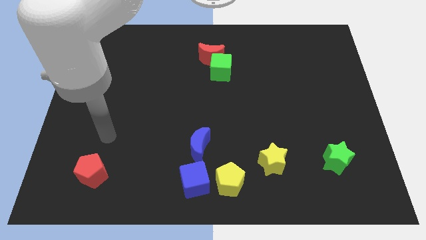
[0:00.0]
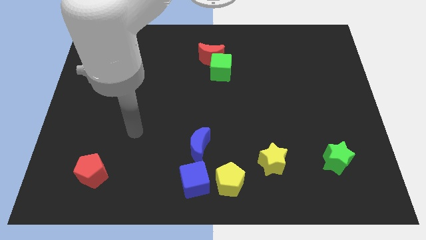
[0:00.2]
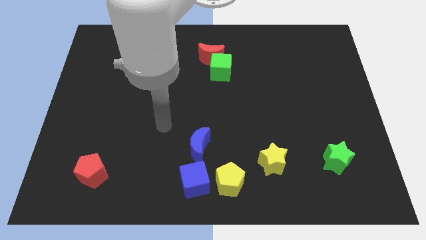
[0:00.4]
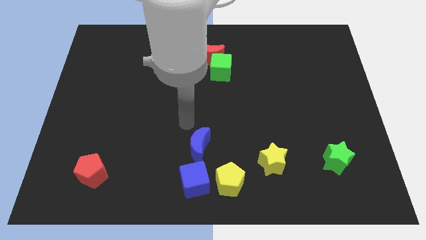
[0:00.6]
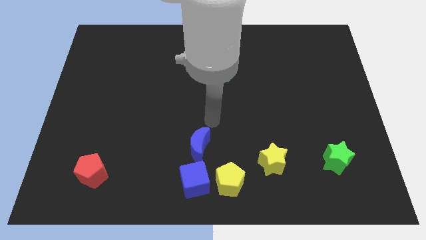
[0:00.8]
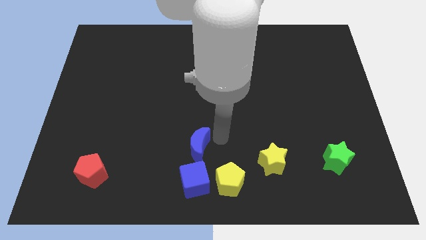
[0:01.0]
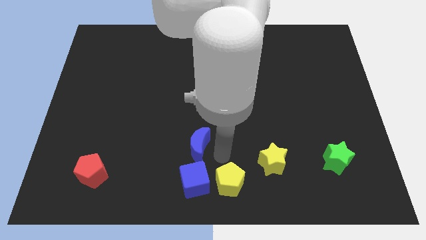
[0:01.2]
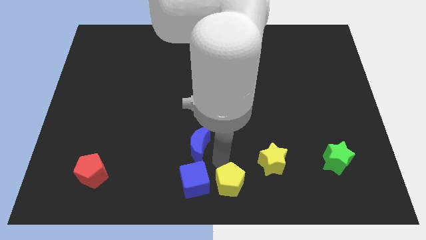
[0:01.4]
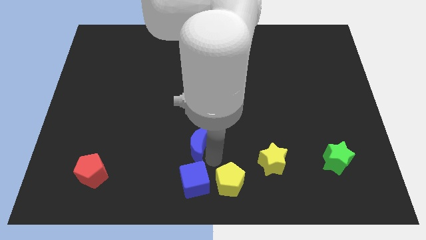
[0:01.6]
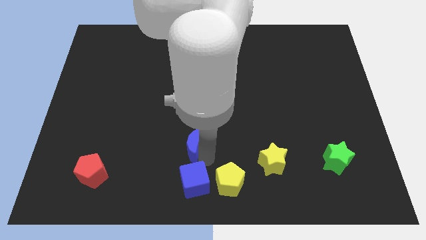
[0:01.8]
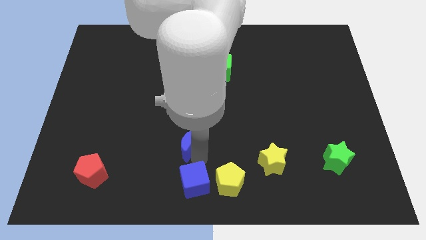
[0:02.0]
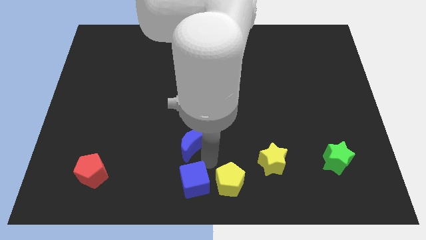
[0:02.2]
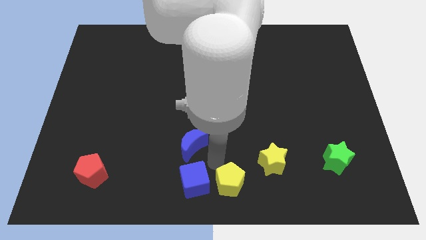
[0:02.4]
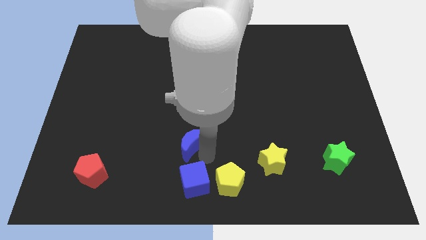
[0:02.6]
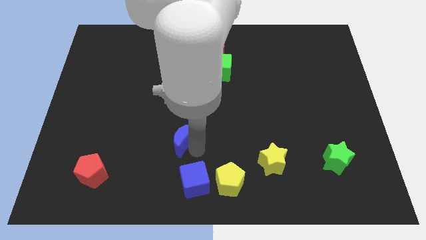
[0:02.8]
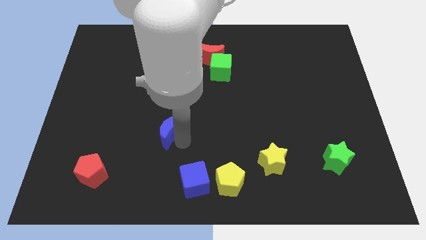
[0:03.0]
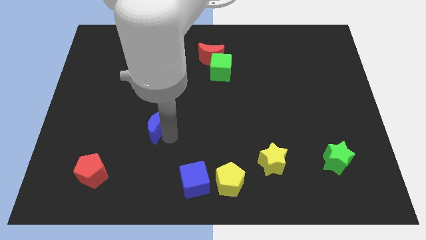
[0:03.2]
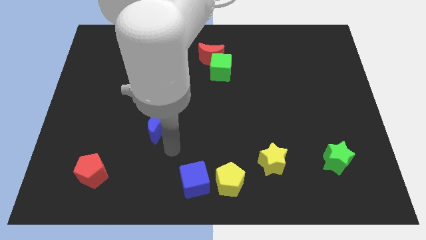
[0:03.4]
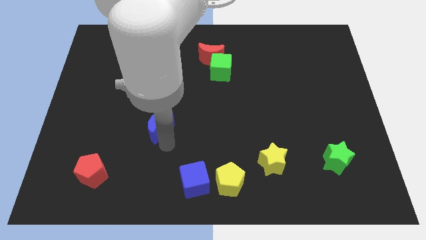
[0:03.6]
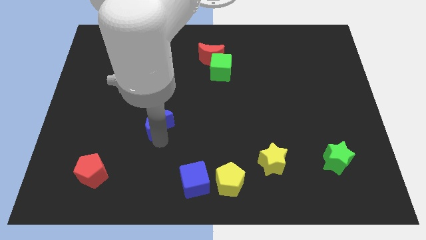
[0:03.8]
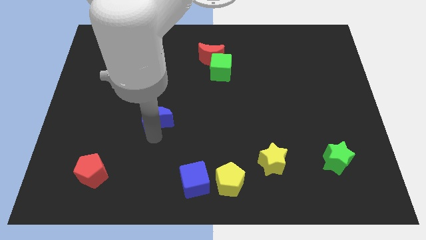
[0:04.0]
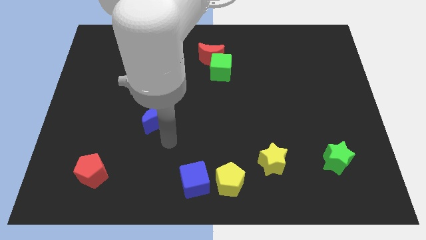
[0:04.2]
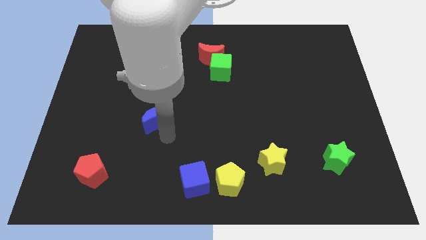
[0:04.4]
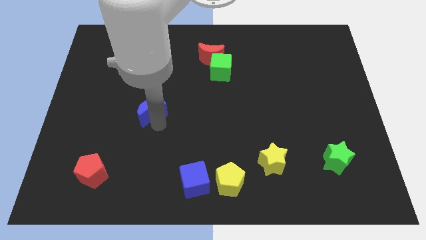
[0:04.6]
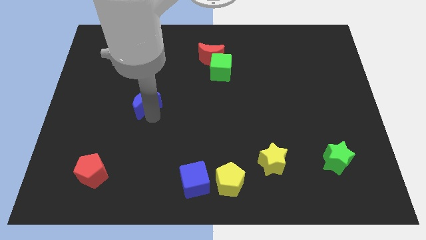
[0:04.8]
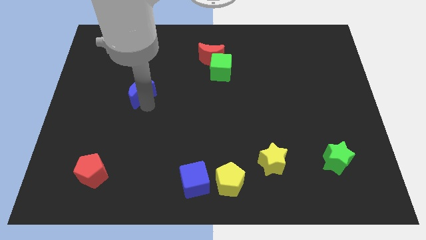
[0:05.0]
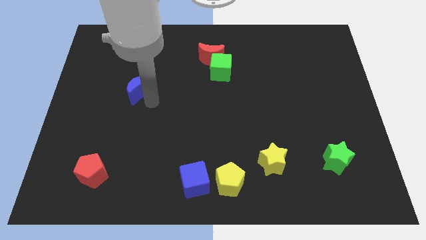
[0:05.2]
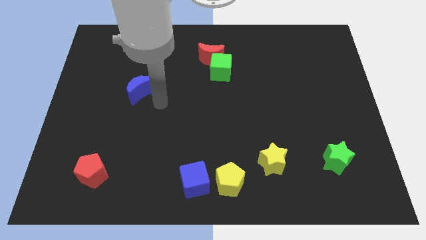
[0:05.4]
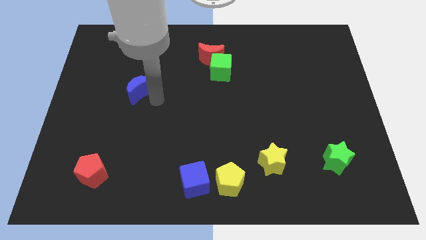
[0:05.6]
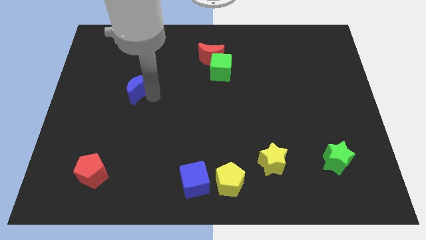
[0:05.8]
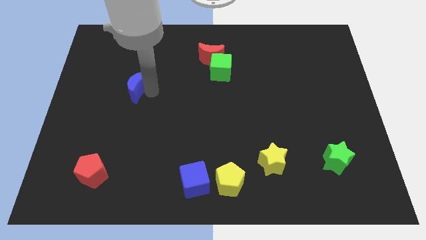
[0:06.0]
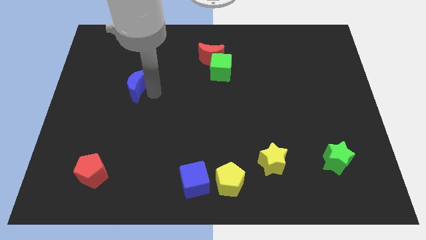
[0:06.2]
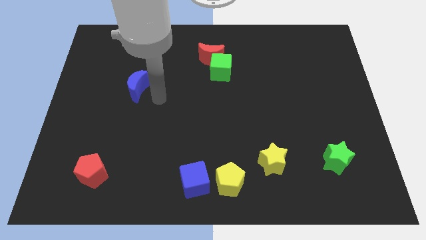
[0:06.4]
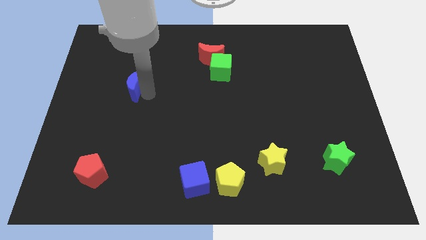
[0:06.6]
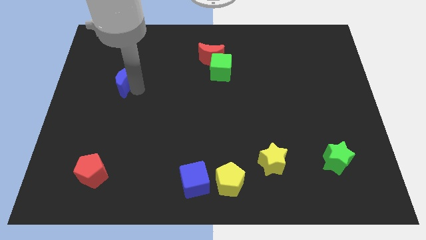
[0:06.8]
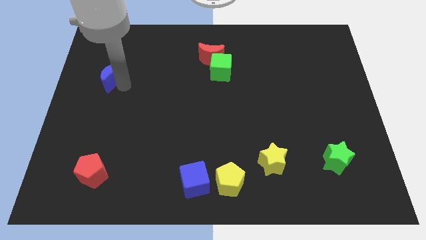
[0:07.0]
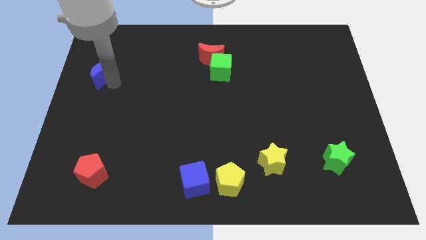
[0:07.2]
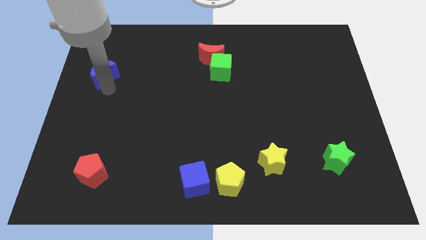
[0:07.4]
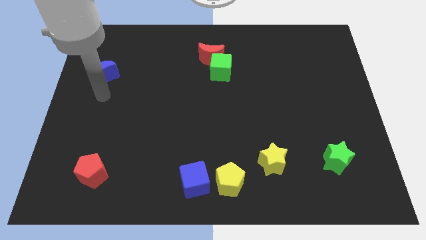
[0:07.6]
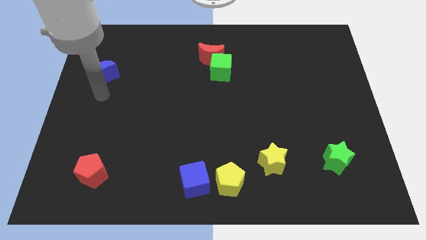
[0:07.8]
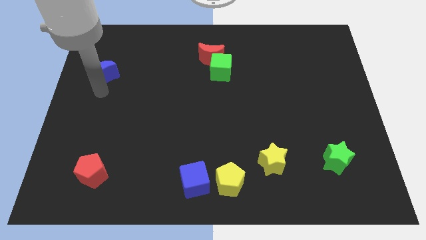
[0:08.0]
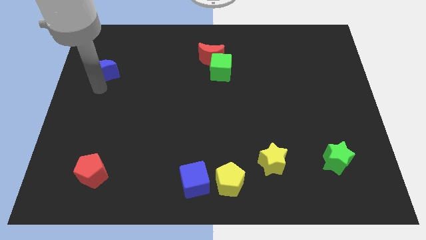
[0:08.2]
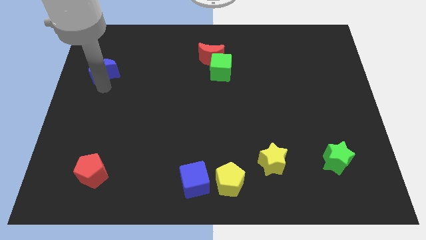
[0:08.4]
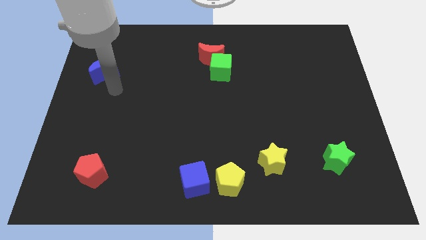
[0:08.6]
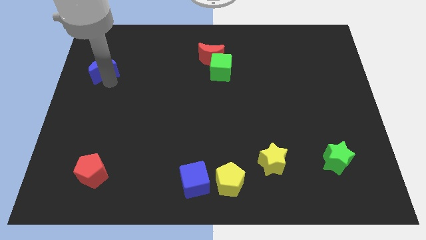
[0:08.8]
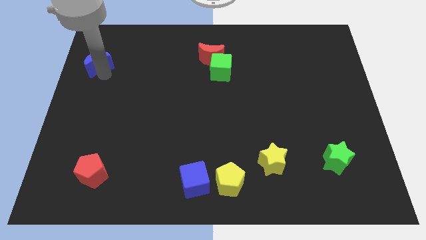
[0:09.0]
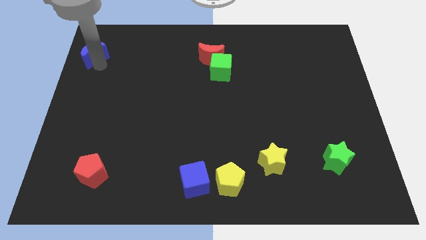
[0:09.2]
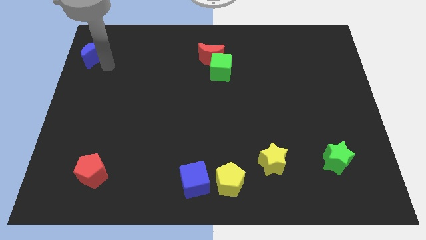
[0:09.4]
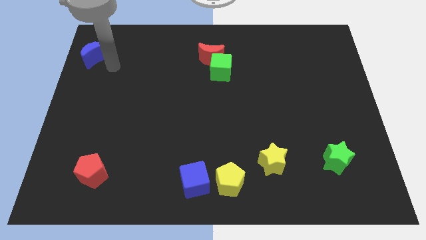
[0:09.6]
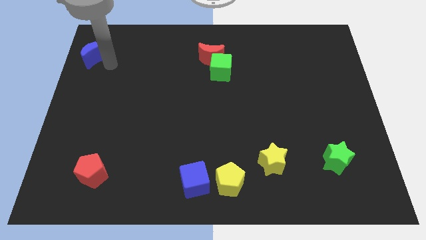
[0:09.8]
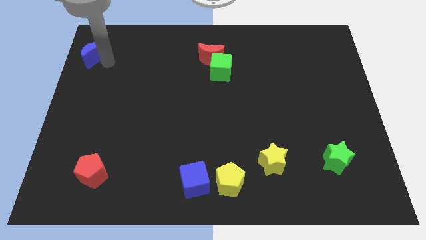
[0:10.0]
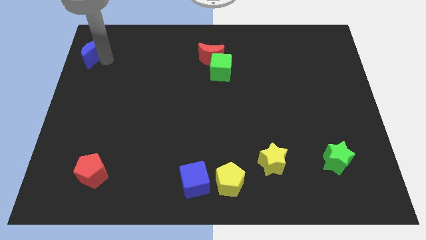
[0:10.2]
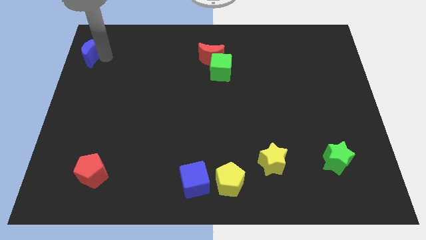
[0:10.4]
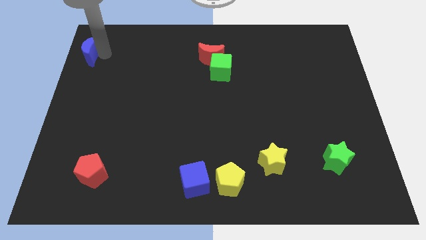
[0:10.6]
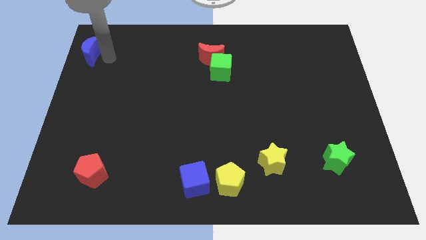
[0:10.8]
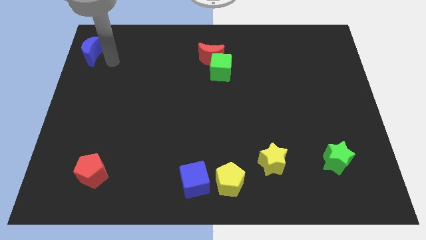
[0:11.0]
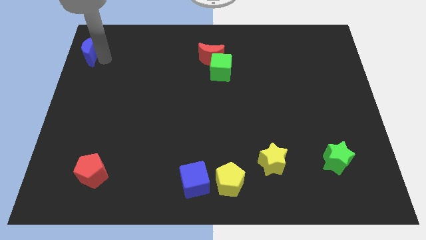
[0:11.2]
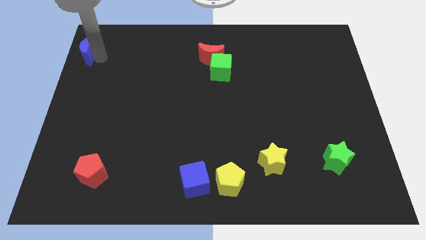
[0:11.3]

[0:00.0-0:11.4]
move the blue moon to the upper left corner
